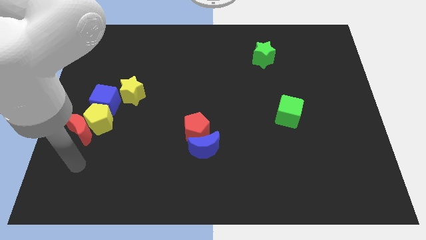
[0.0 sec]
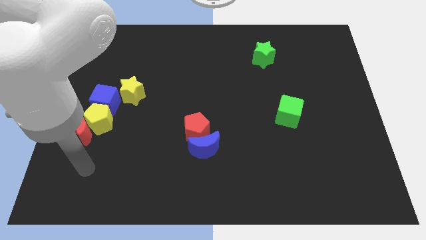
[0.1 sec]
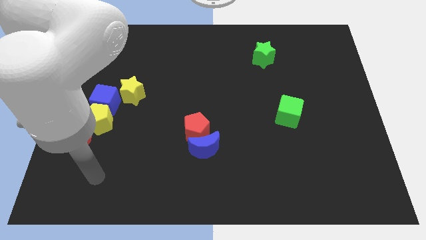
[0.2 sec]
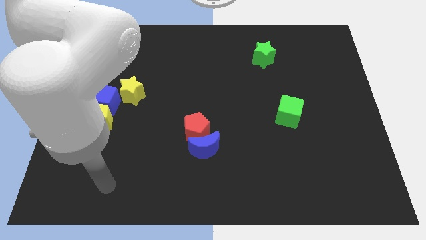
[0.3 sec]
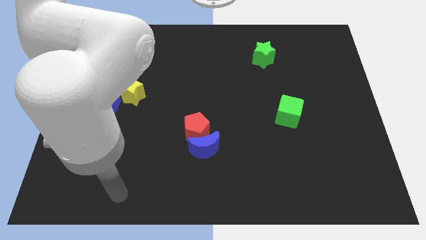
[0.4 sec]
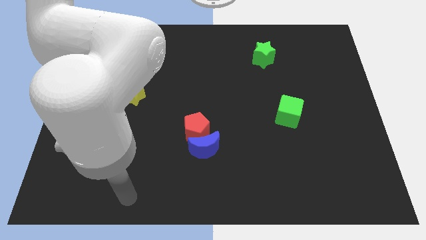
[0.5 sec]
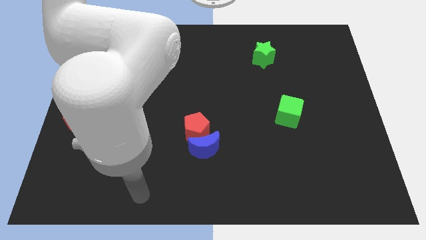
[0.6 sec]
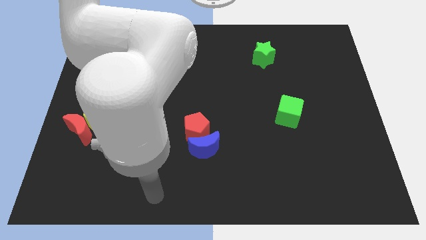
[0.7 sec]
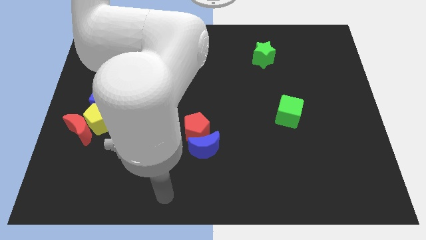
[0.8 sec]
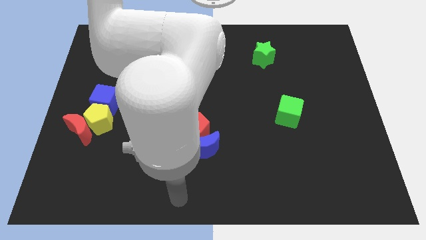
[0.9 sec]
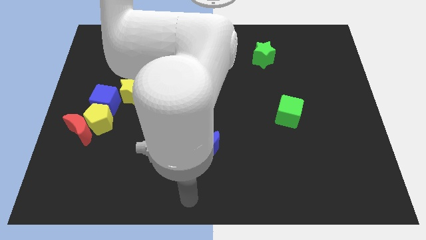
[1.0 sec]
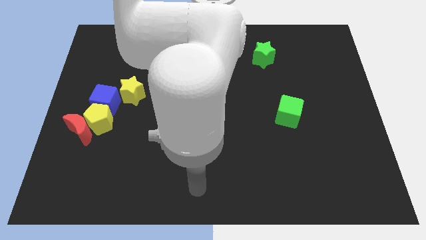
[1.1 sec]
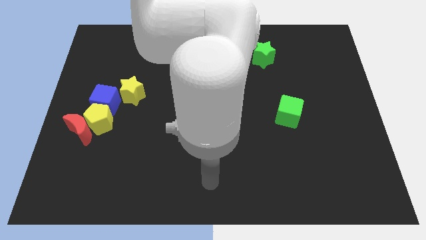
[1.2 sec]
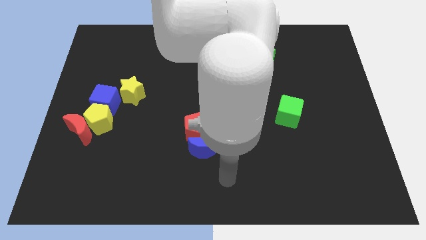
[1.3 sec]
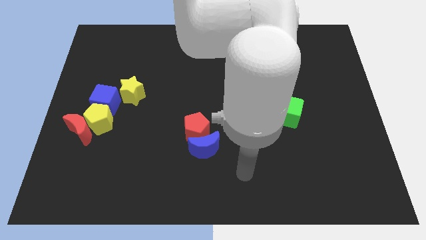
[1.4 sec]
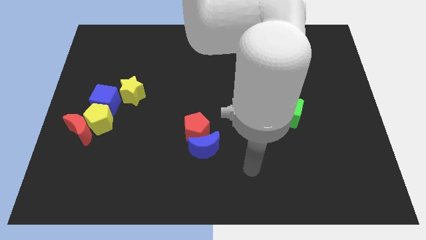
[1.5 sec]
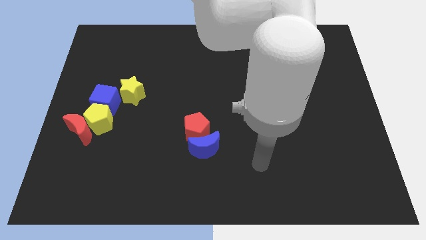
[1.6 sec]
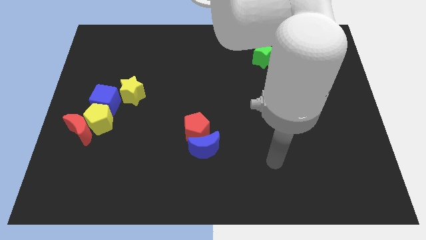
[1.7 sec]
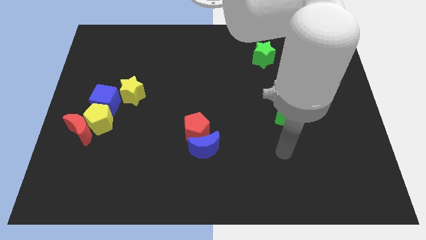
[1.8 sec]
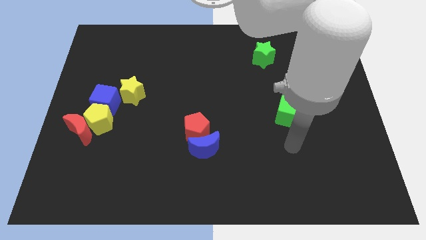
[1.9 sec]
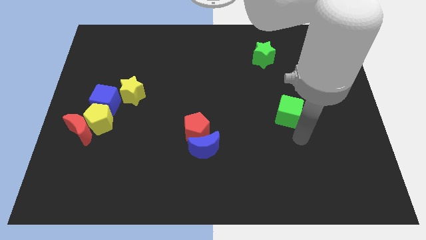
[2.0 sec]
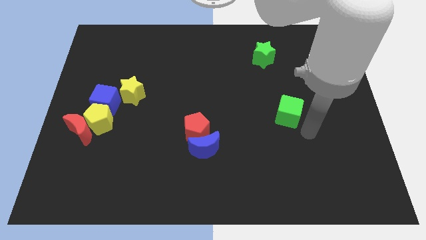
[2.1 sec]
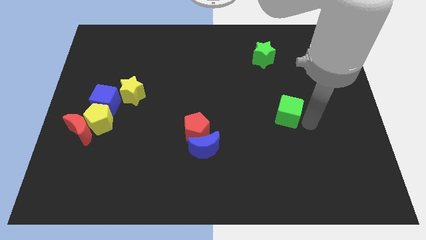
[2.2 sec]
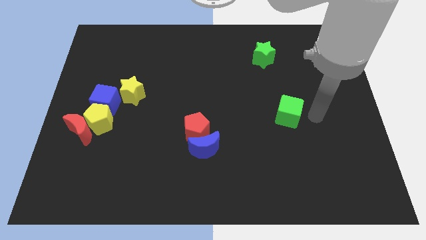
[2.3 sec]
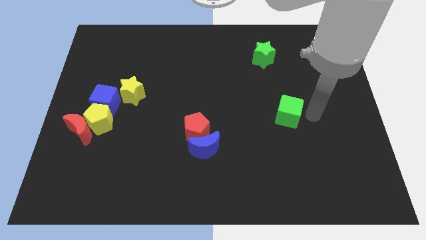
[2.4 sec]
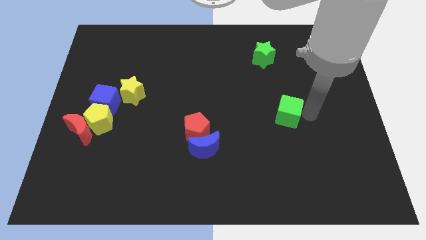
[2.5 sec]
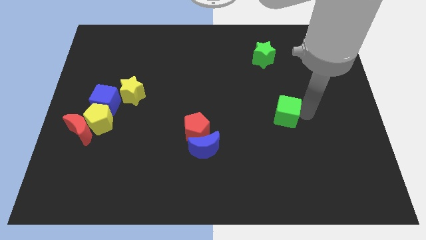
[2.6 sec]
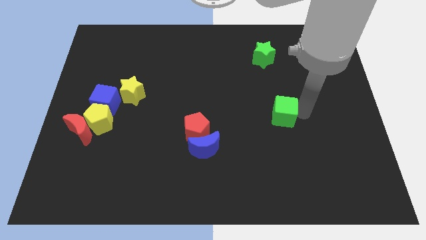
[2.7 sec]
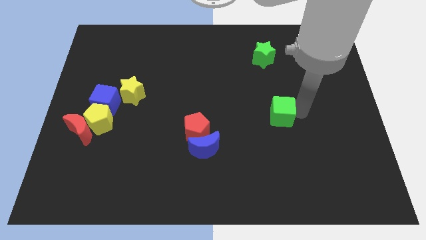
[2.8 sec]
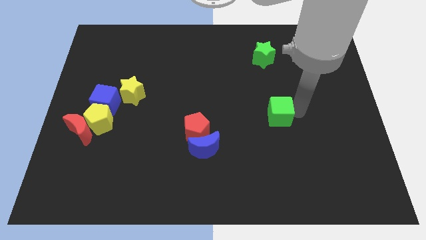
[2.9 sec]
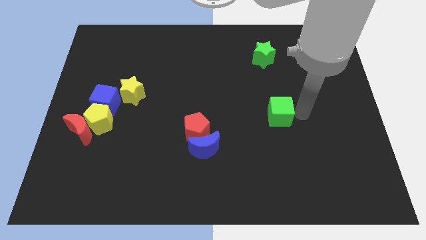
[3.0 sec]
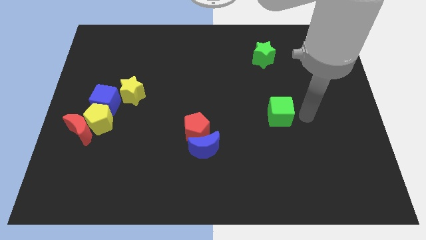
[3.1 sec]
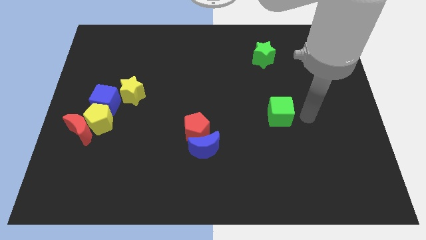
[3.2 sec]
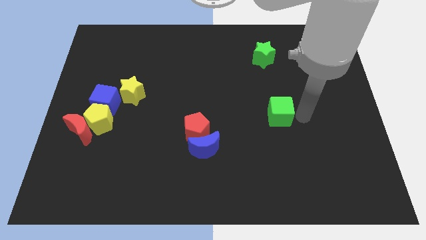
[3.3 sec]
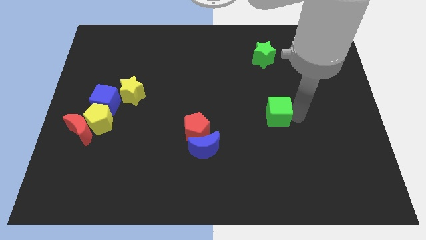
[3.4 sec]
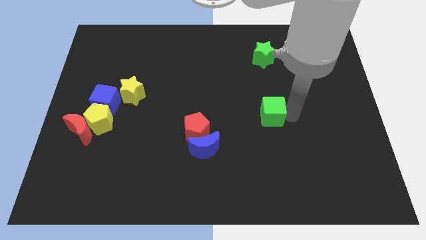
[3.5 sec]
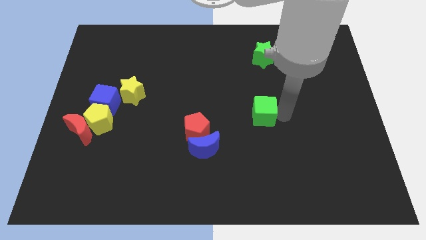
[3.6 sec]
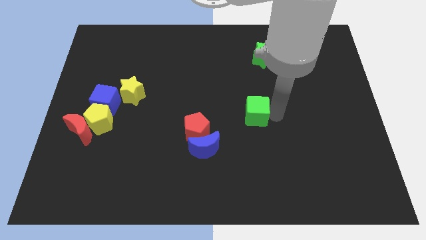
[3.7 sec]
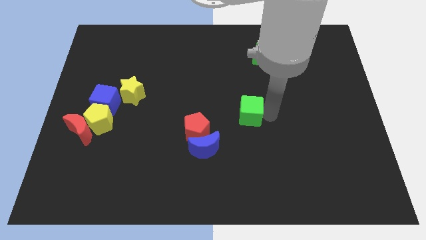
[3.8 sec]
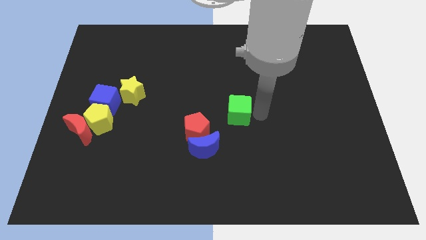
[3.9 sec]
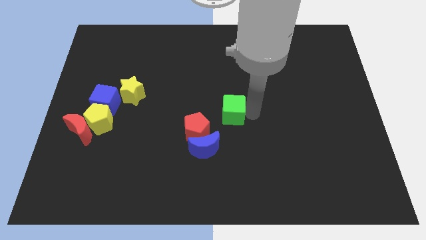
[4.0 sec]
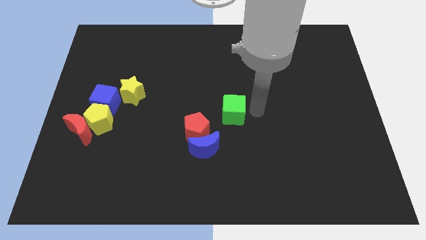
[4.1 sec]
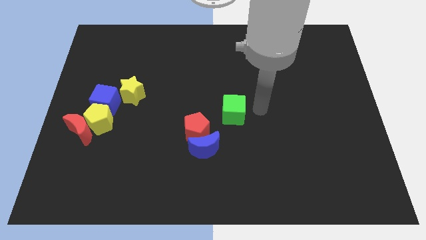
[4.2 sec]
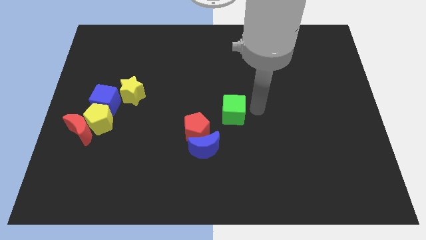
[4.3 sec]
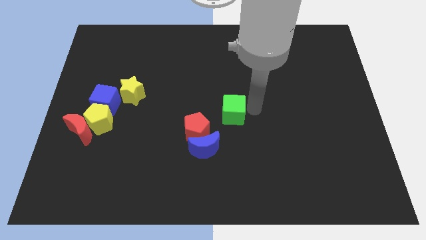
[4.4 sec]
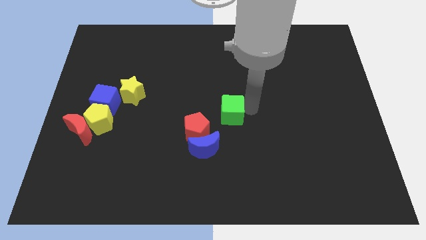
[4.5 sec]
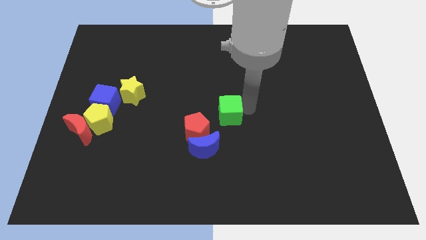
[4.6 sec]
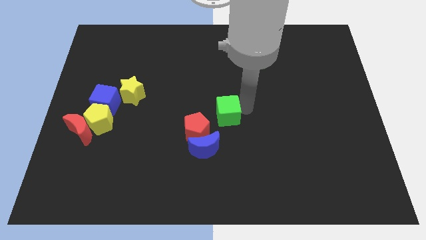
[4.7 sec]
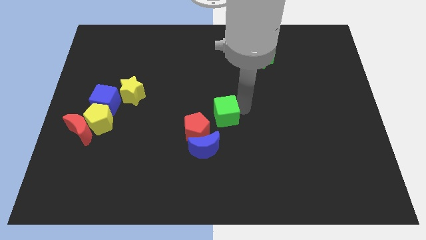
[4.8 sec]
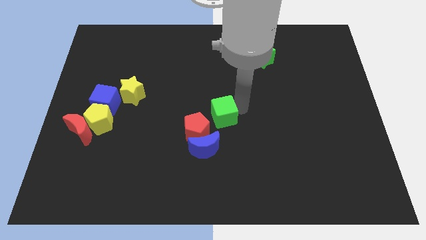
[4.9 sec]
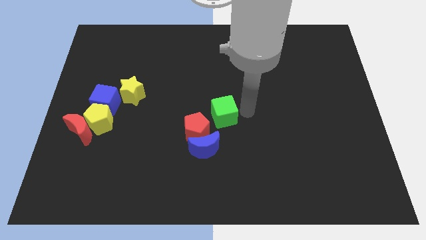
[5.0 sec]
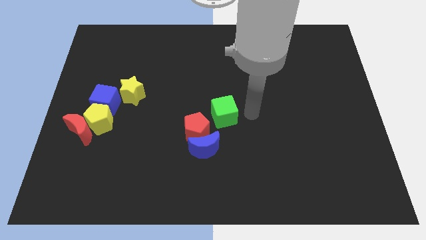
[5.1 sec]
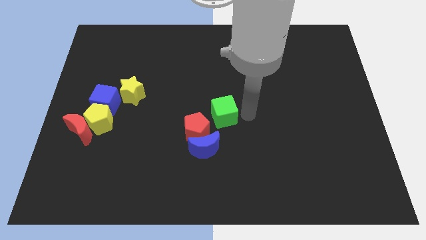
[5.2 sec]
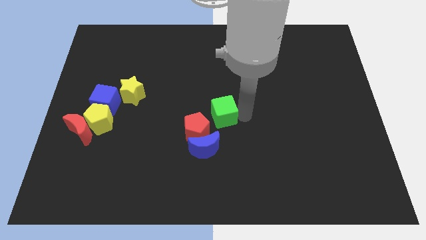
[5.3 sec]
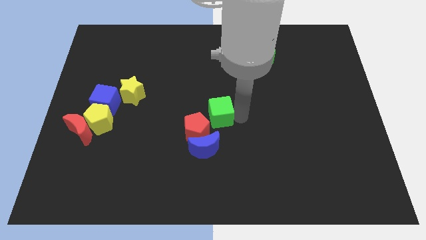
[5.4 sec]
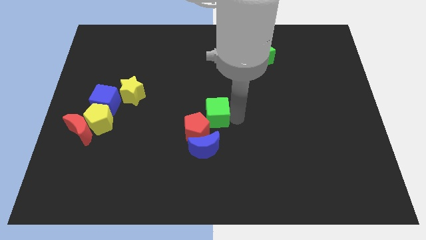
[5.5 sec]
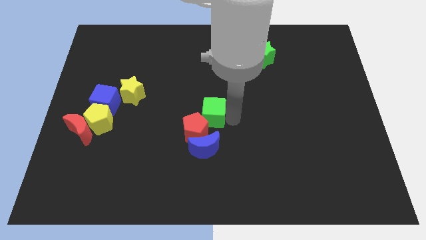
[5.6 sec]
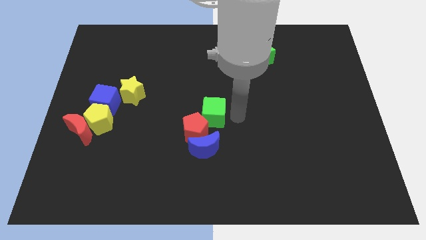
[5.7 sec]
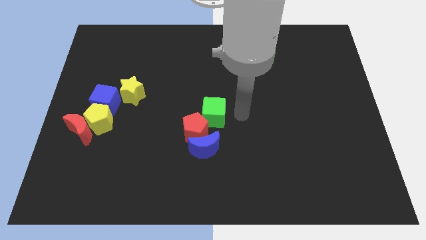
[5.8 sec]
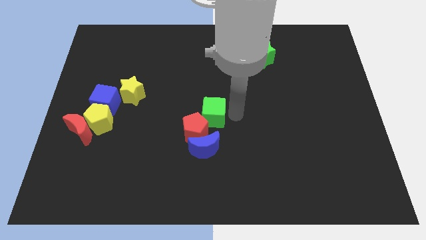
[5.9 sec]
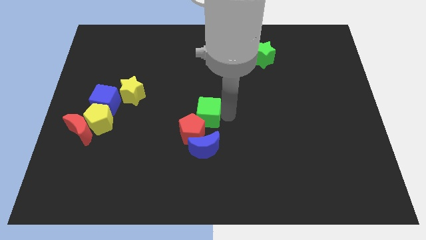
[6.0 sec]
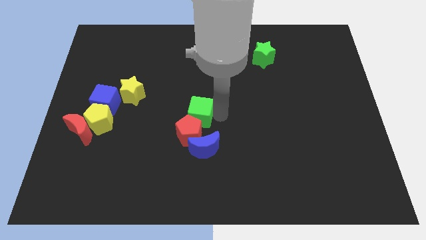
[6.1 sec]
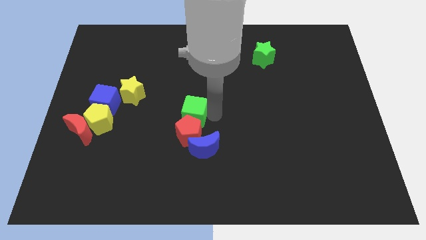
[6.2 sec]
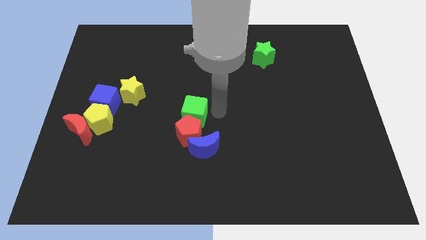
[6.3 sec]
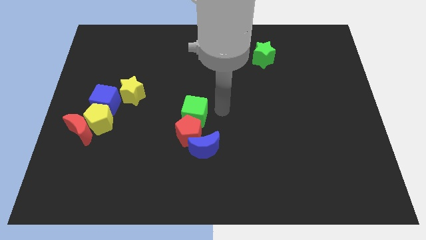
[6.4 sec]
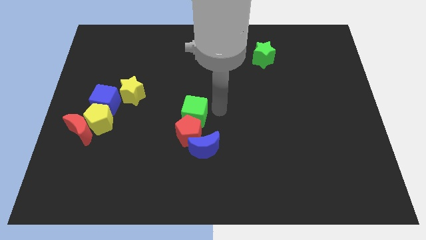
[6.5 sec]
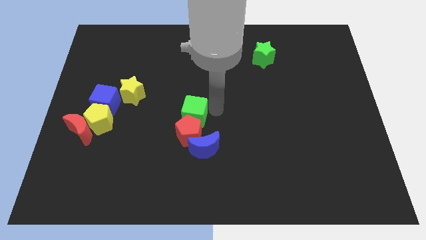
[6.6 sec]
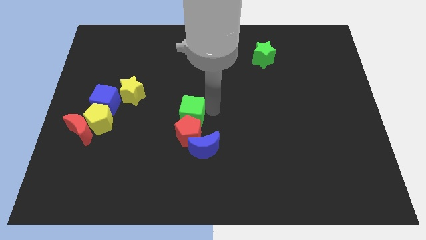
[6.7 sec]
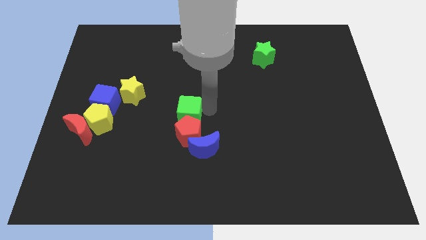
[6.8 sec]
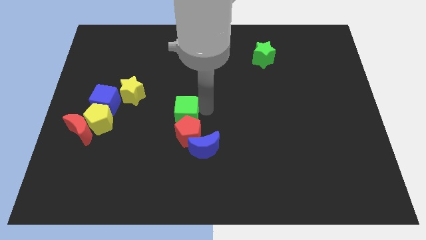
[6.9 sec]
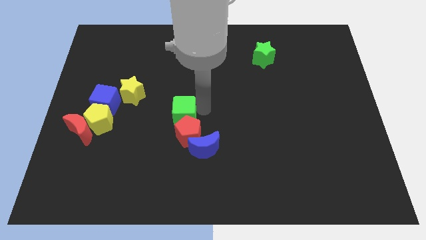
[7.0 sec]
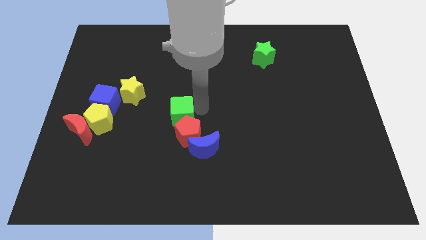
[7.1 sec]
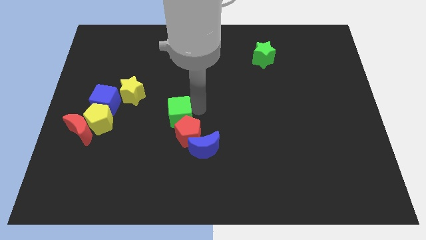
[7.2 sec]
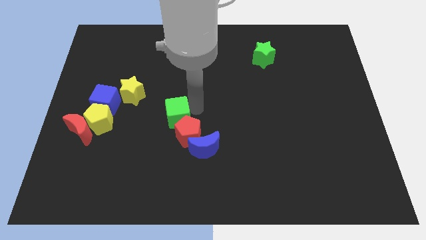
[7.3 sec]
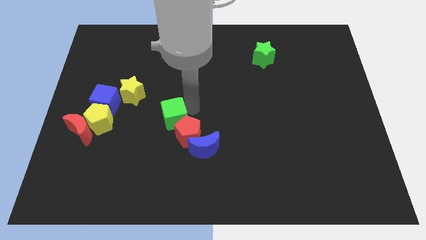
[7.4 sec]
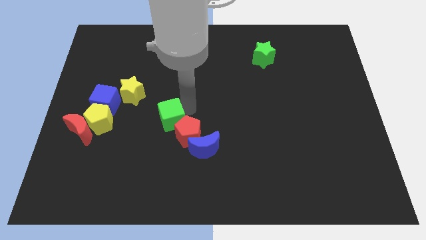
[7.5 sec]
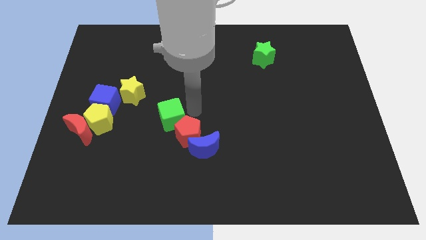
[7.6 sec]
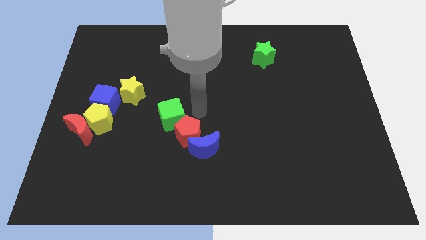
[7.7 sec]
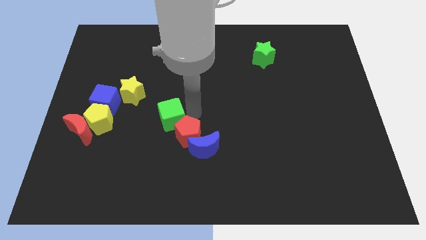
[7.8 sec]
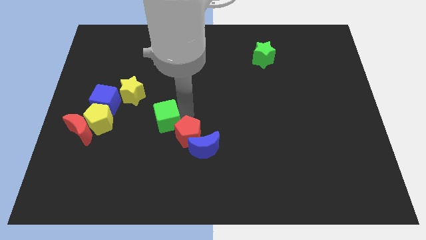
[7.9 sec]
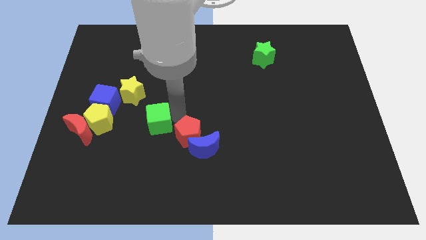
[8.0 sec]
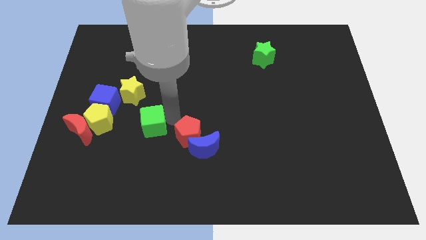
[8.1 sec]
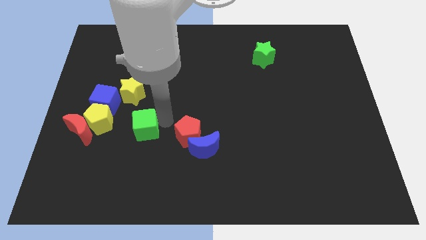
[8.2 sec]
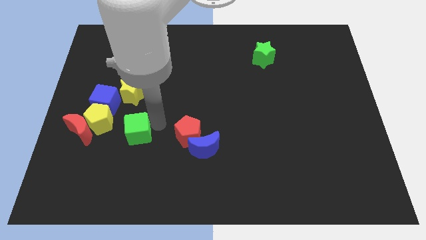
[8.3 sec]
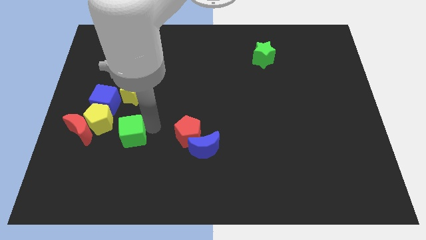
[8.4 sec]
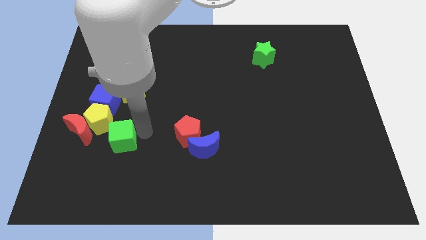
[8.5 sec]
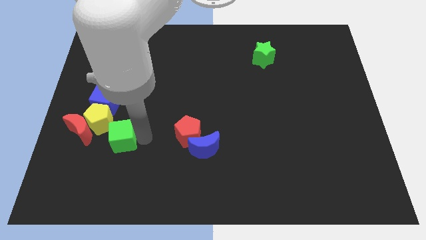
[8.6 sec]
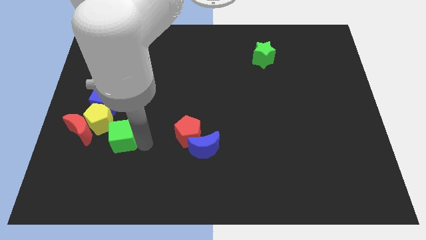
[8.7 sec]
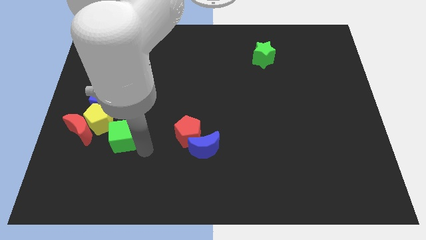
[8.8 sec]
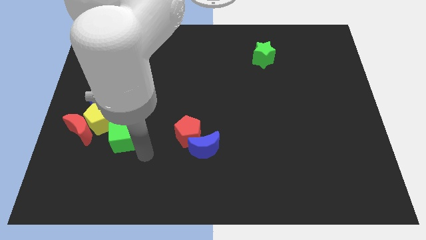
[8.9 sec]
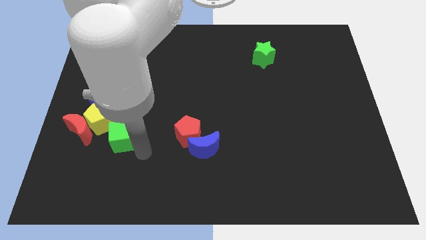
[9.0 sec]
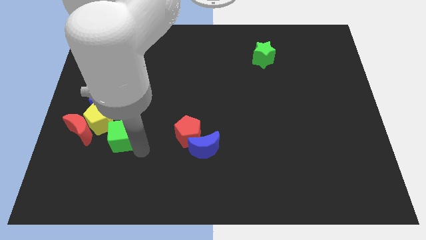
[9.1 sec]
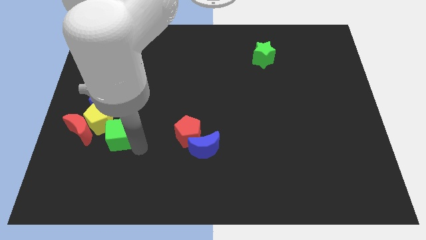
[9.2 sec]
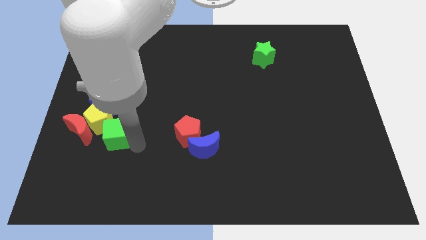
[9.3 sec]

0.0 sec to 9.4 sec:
push the green cube towards the yellow pentagon
